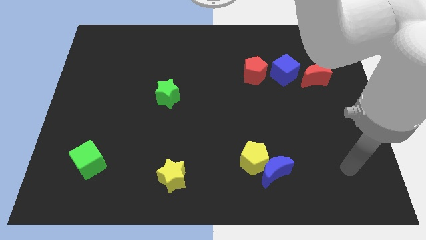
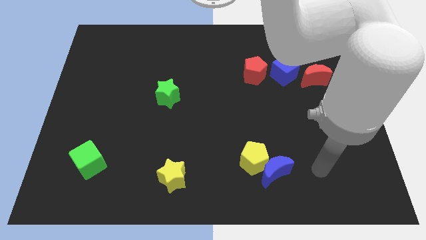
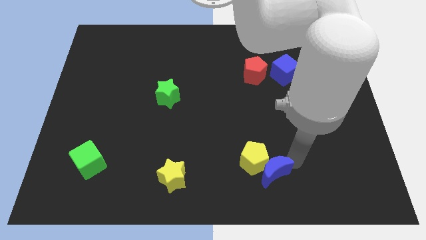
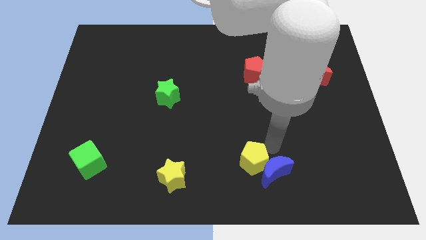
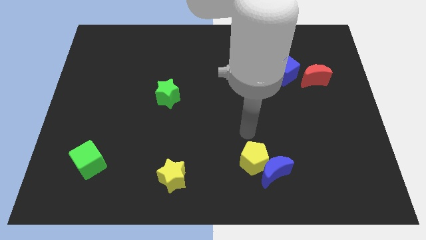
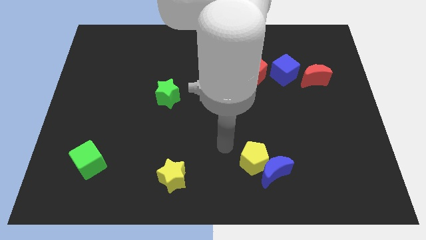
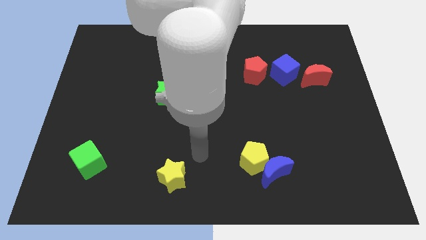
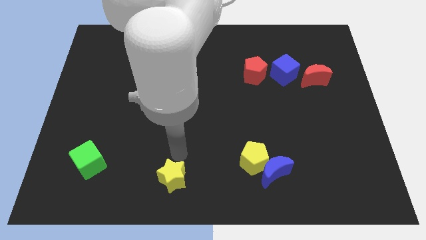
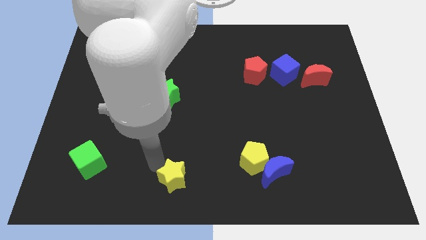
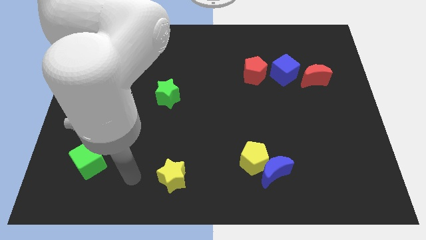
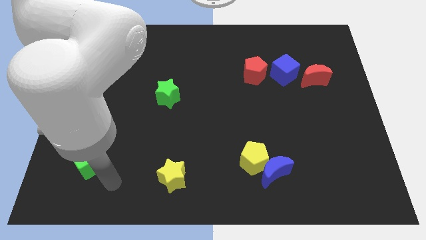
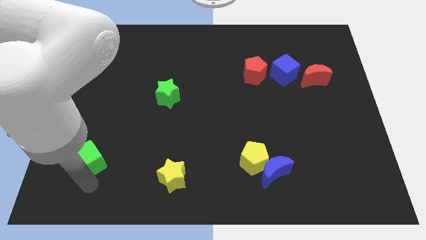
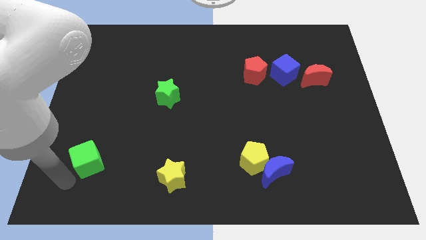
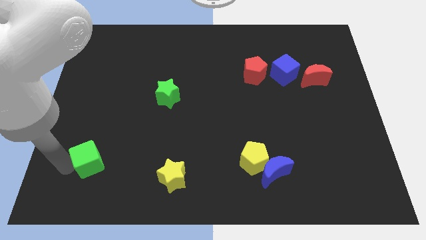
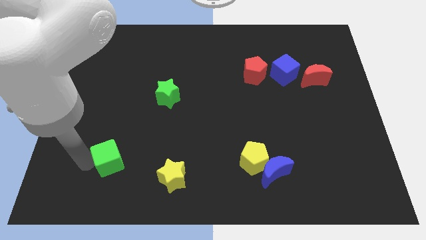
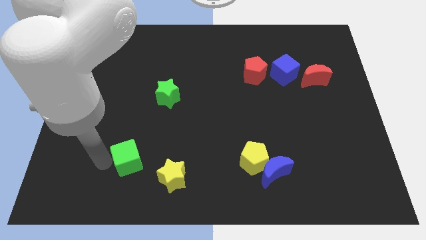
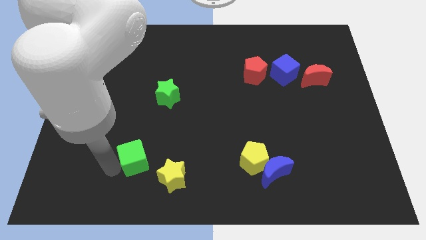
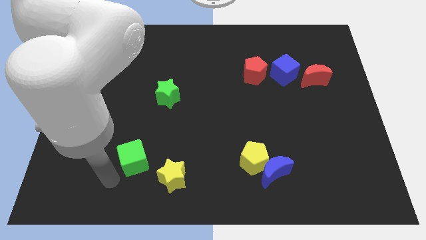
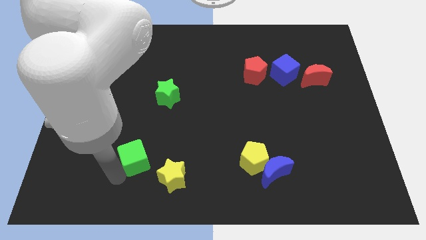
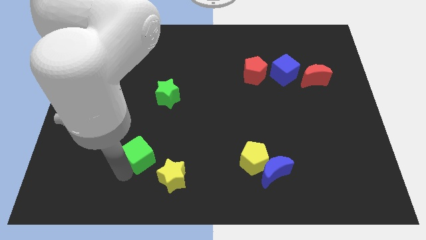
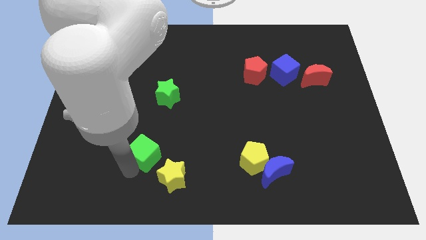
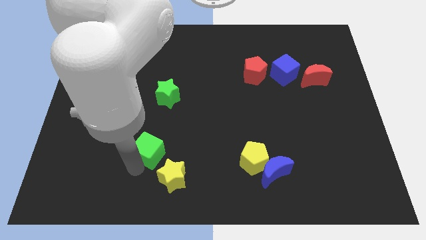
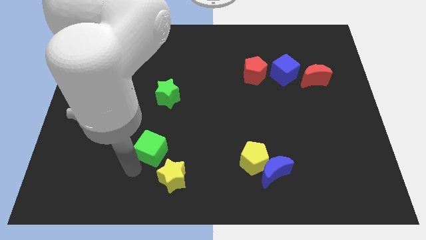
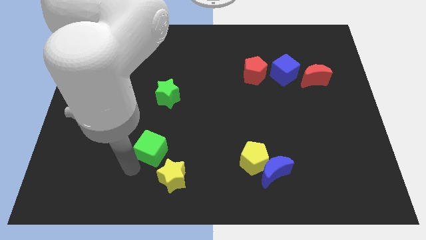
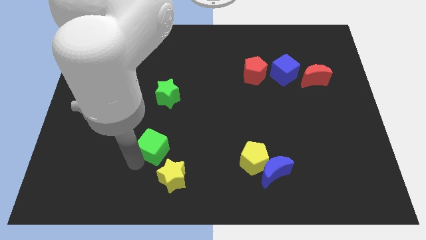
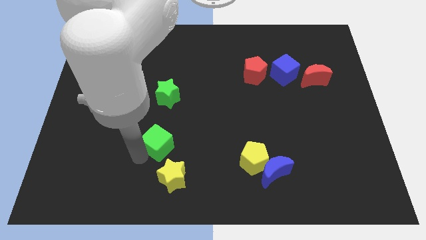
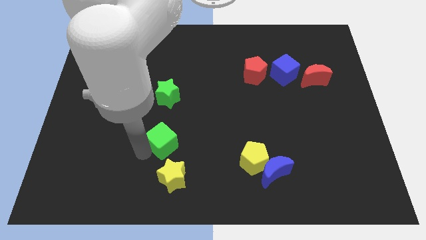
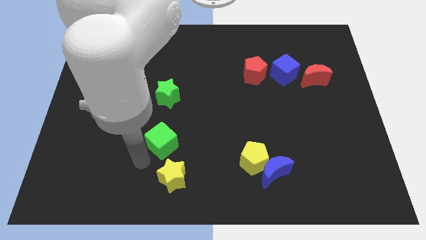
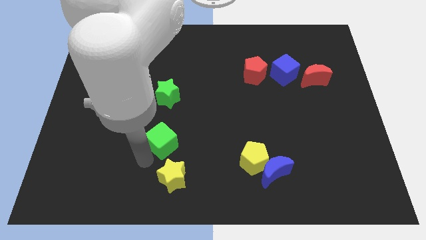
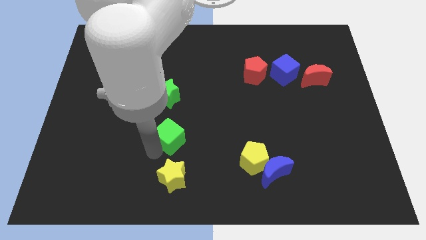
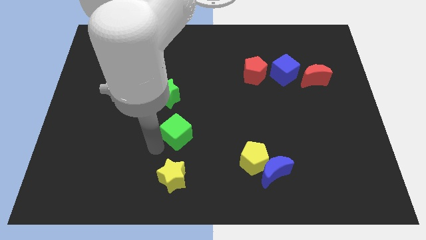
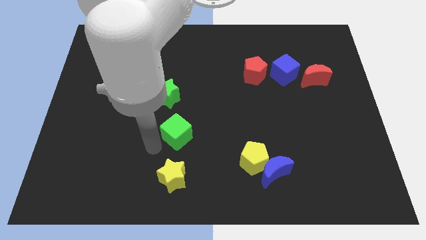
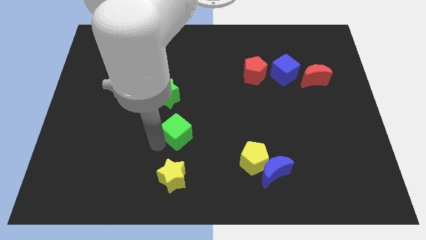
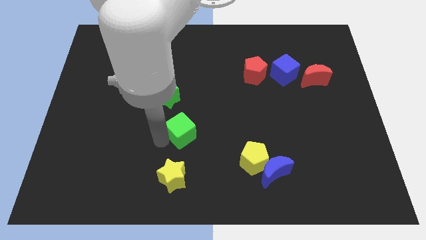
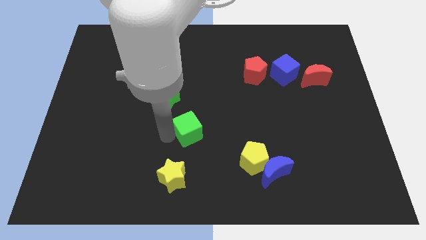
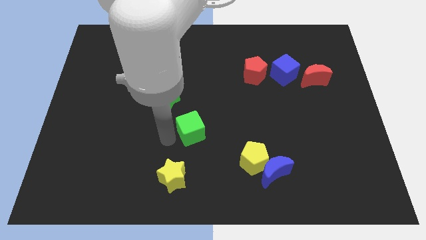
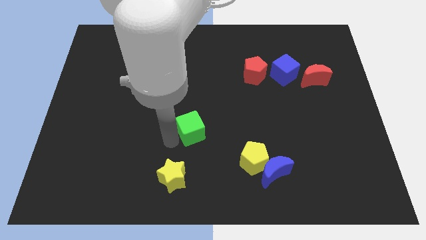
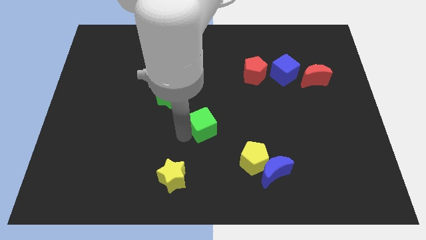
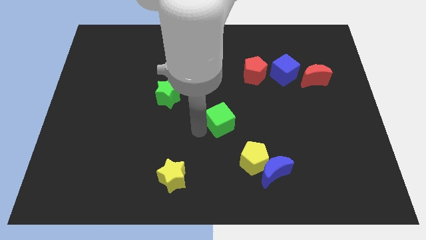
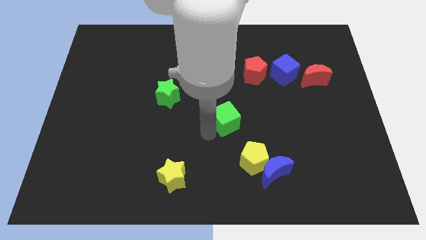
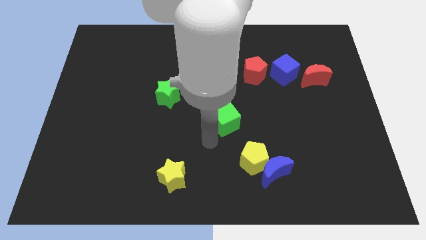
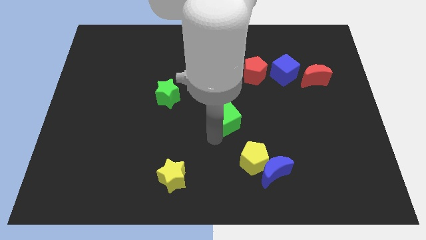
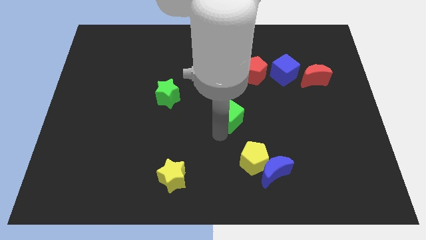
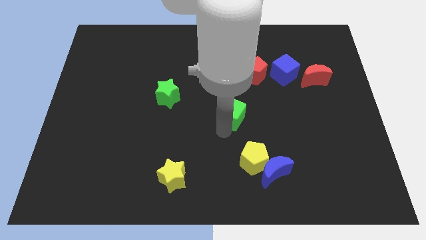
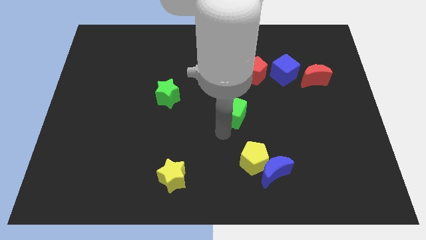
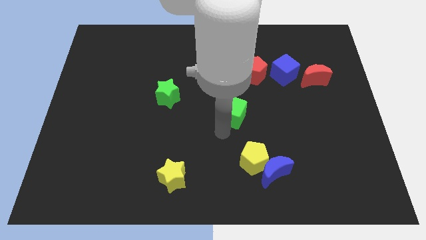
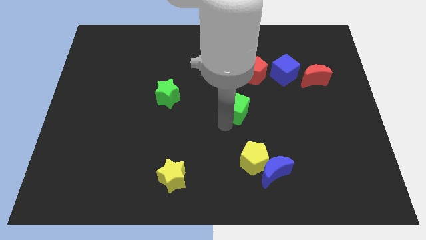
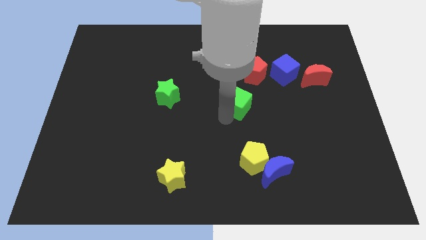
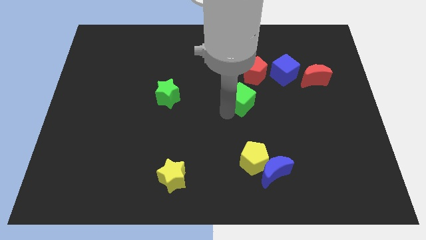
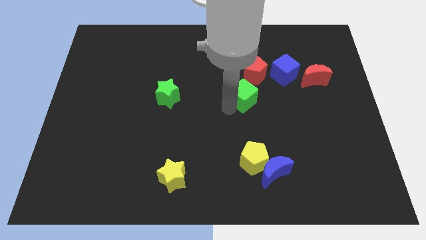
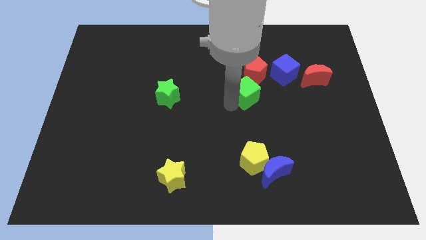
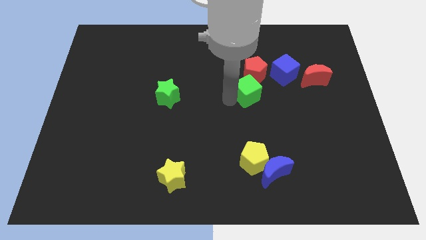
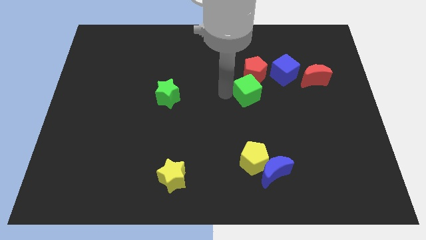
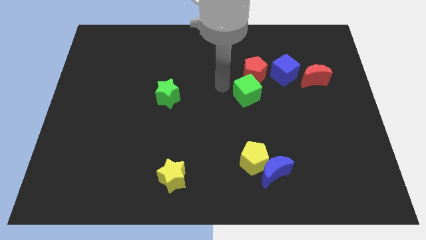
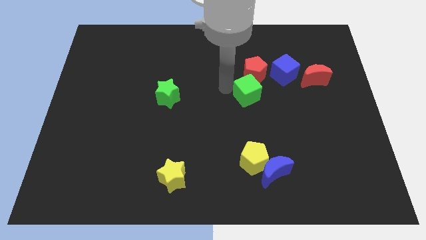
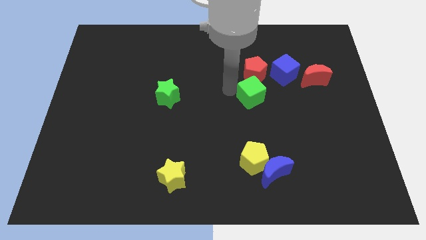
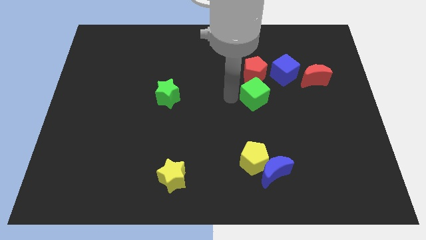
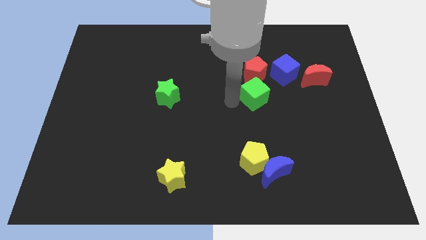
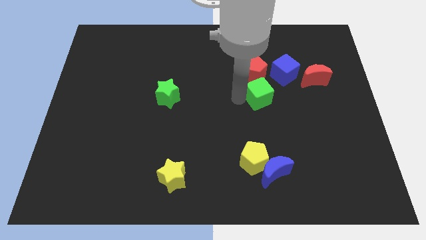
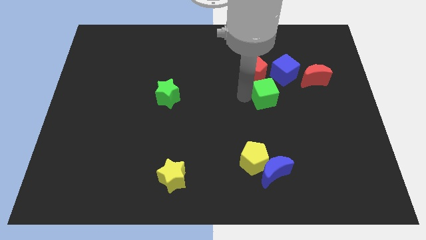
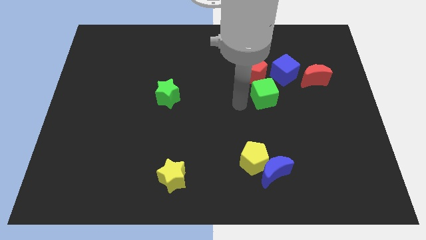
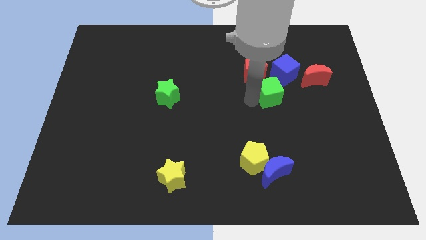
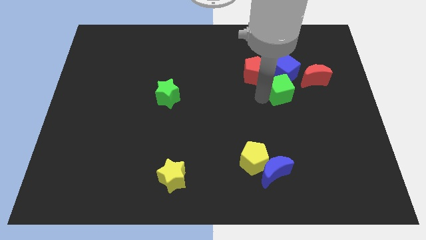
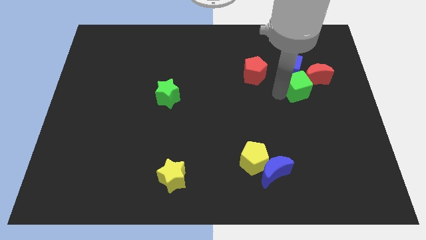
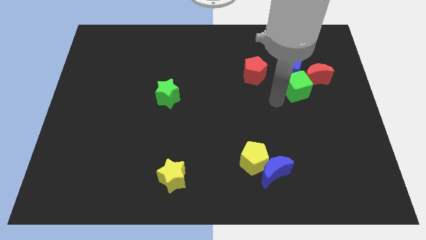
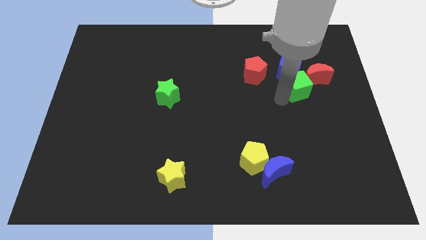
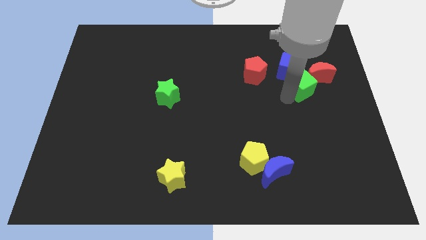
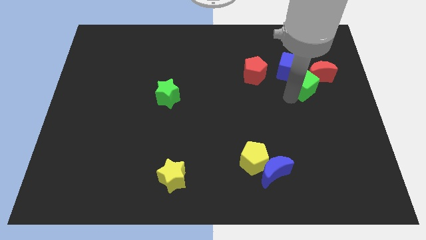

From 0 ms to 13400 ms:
push the green cube close to the red moon

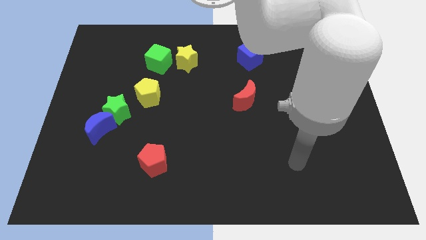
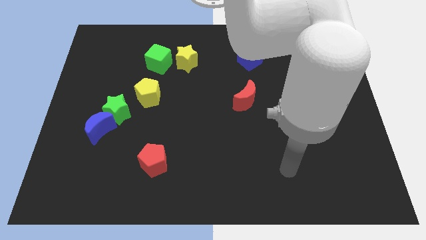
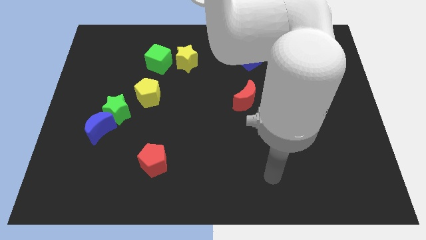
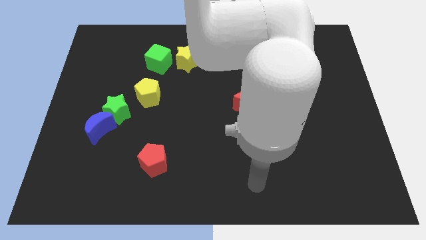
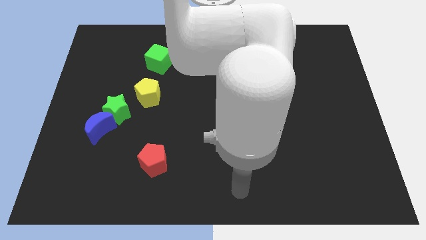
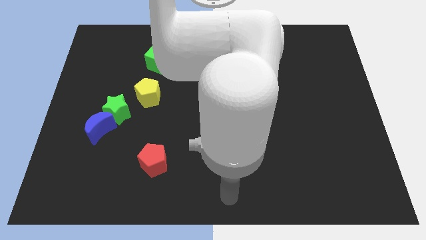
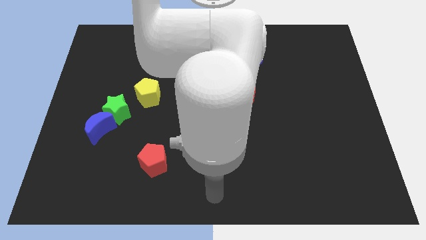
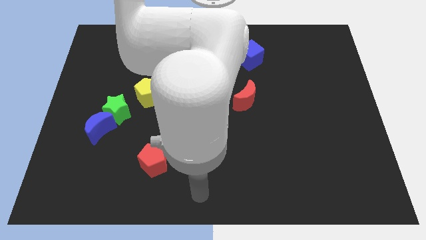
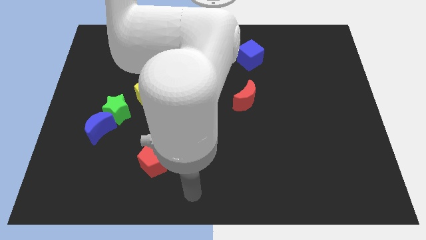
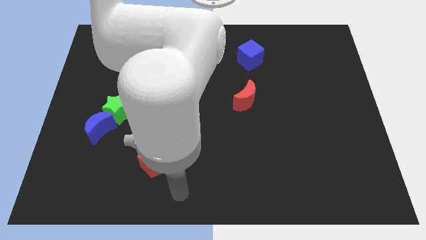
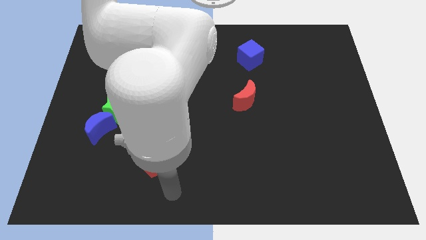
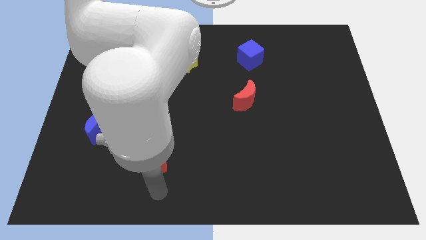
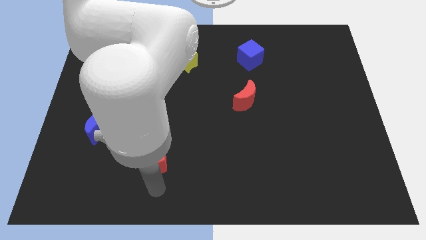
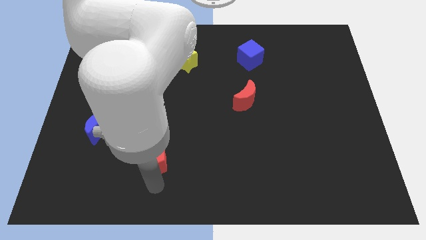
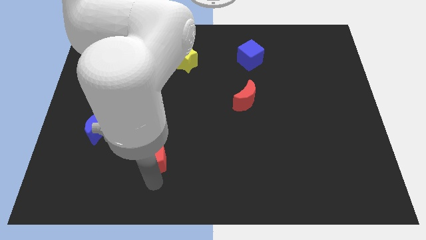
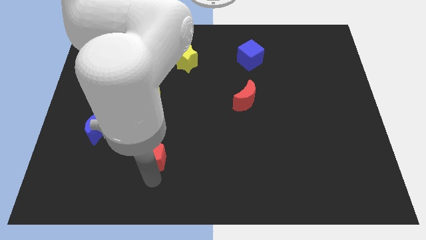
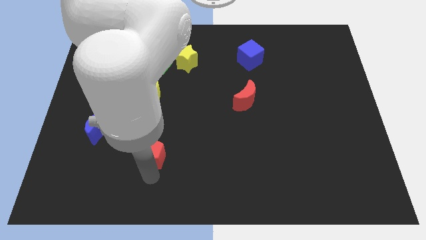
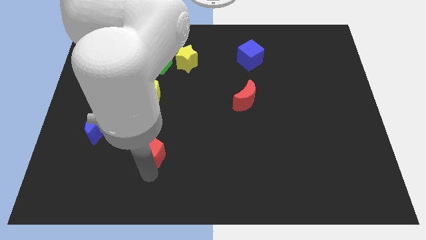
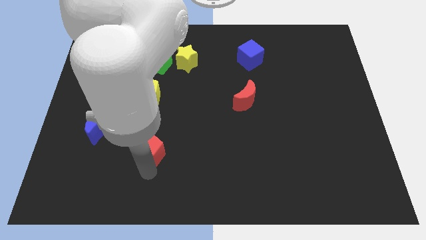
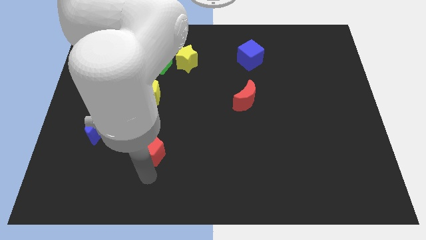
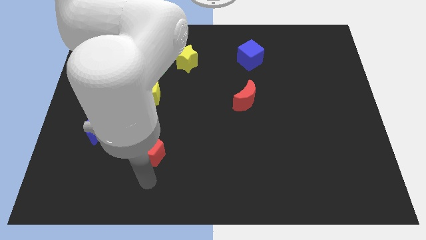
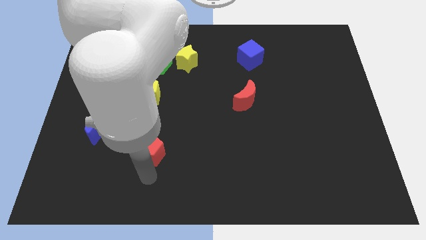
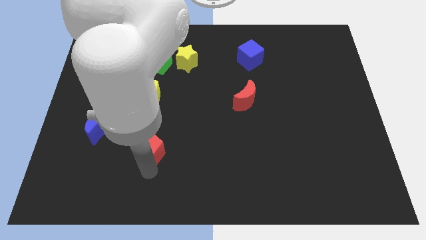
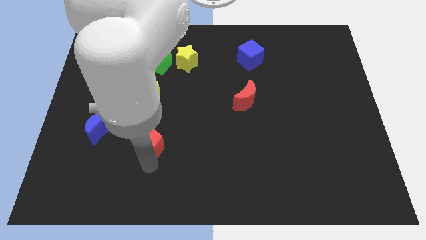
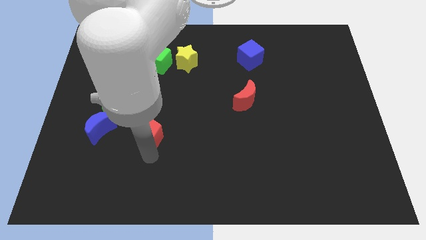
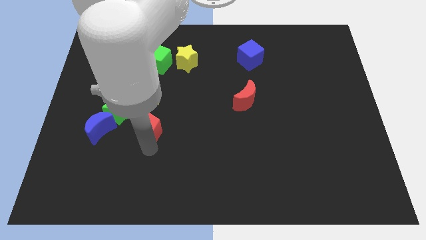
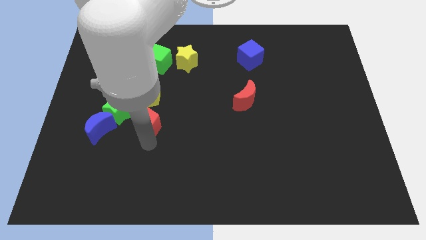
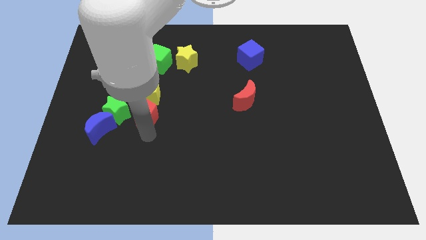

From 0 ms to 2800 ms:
move the red pentagon towards the yellow pentagon
